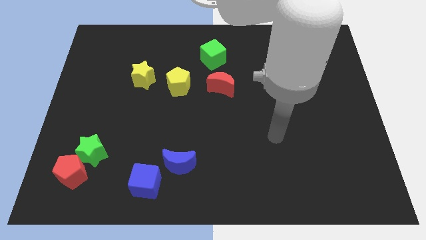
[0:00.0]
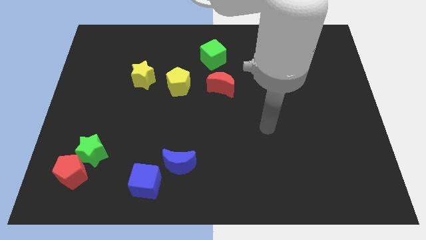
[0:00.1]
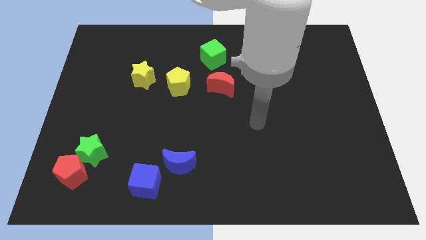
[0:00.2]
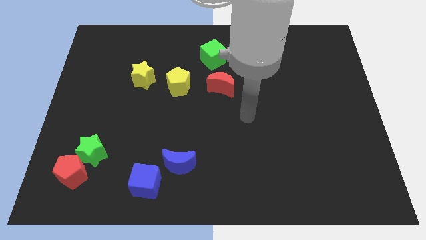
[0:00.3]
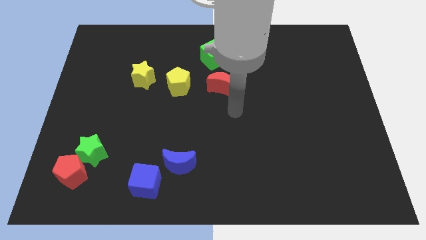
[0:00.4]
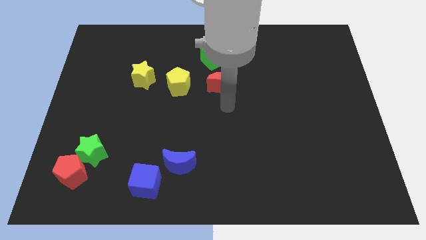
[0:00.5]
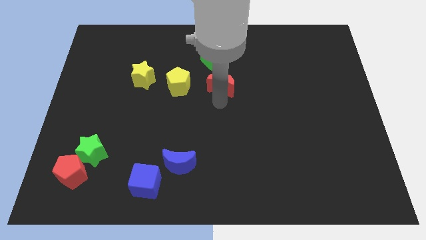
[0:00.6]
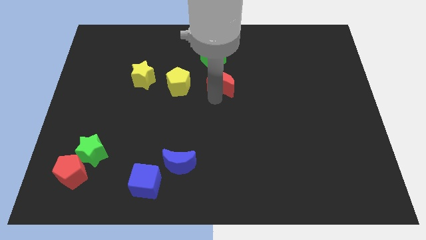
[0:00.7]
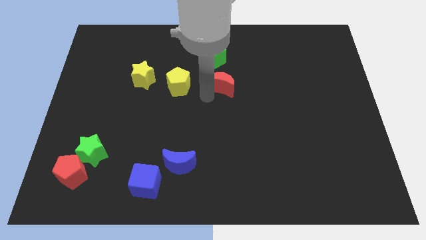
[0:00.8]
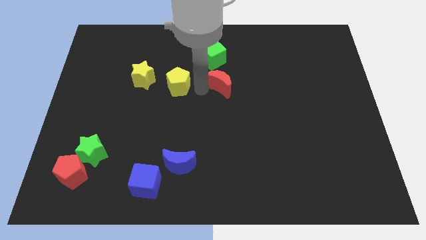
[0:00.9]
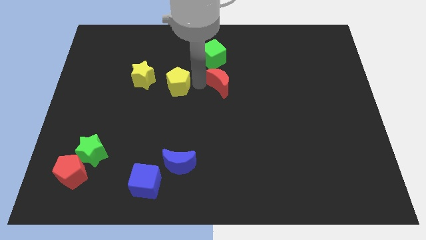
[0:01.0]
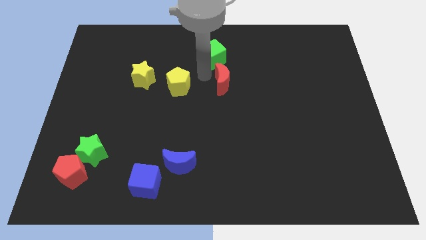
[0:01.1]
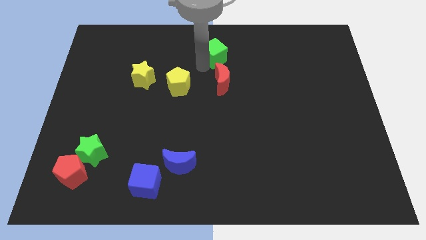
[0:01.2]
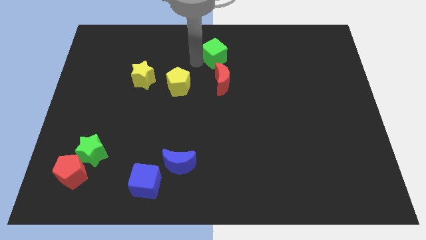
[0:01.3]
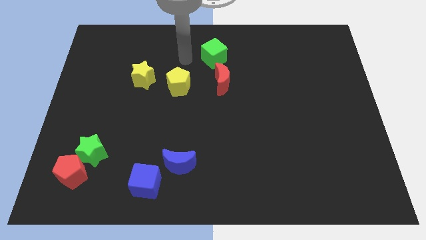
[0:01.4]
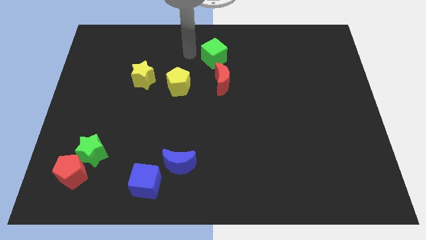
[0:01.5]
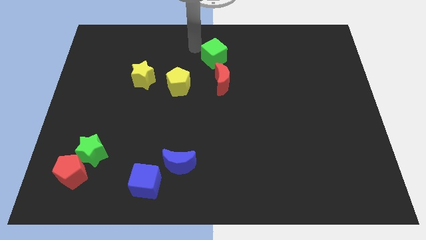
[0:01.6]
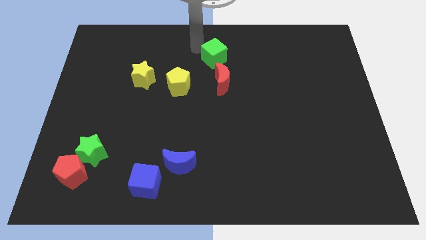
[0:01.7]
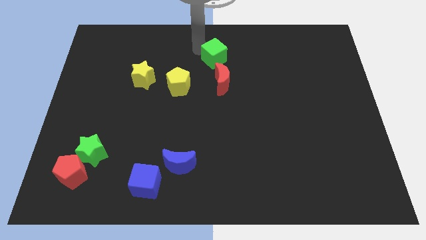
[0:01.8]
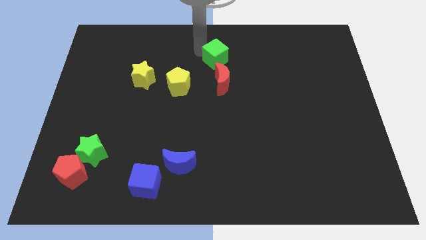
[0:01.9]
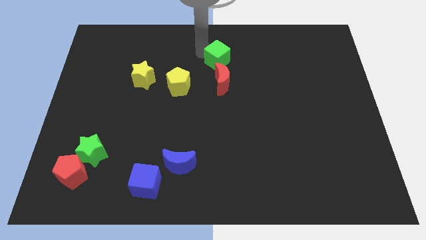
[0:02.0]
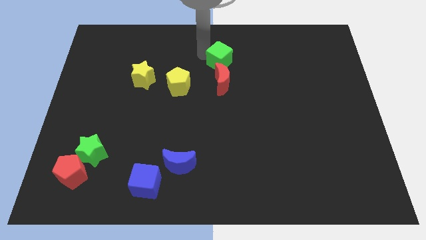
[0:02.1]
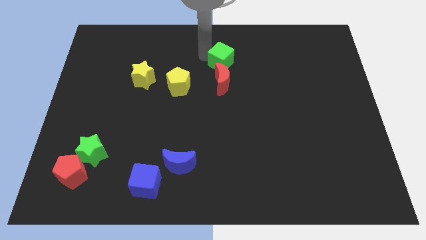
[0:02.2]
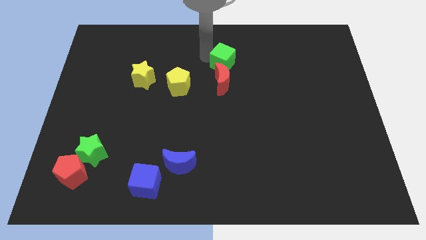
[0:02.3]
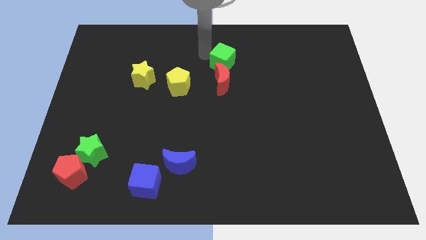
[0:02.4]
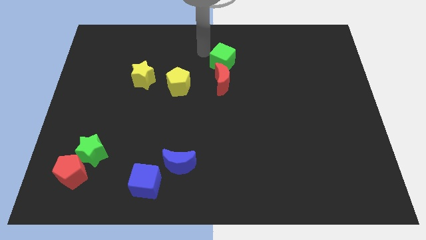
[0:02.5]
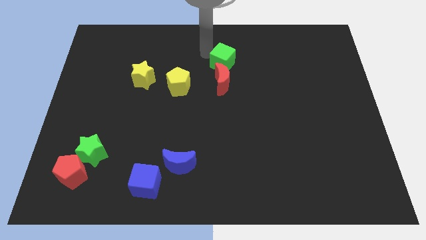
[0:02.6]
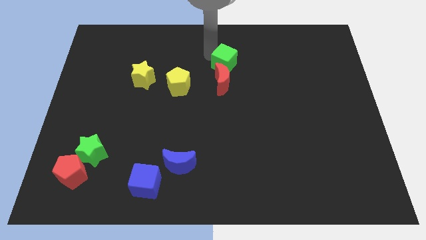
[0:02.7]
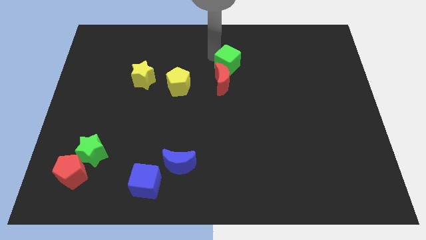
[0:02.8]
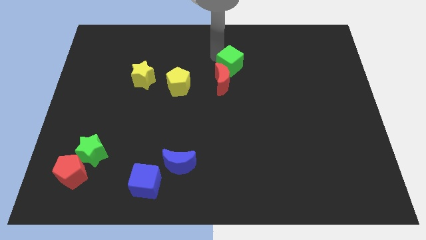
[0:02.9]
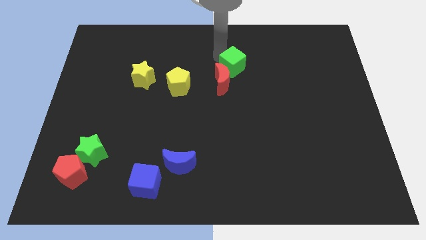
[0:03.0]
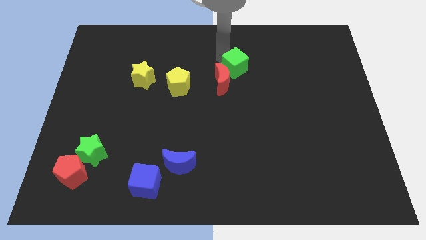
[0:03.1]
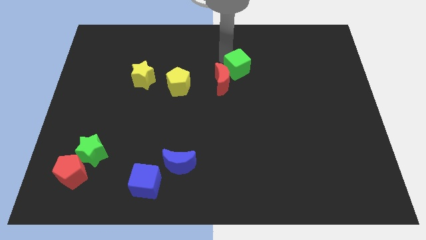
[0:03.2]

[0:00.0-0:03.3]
slightly push the green cube down and to the right diagonally

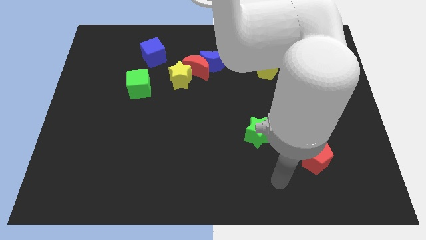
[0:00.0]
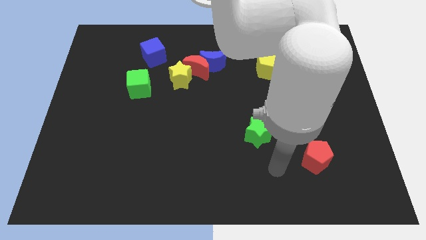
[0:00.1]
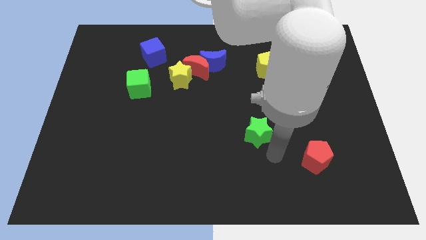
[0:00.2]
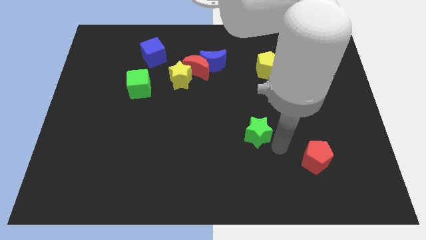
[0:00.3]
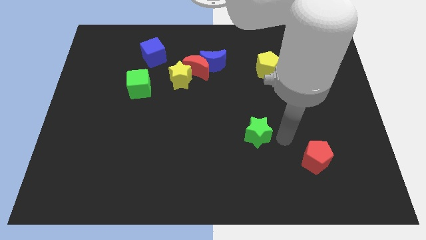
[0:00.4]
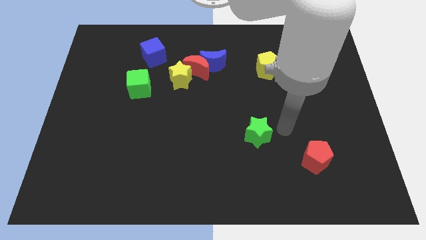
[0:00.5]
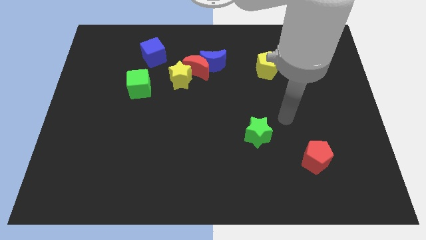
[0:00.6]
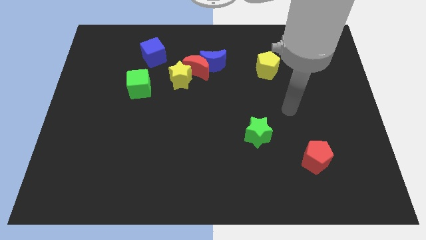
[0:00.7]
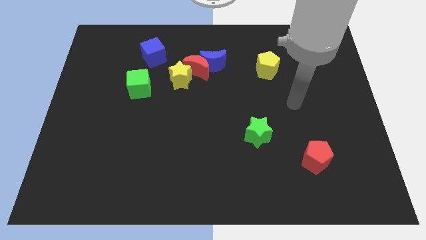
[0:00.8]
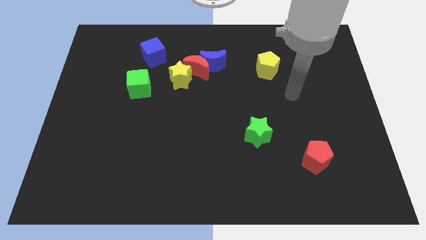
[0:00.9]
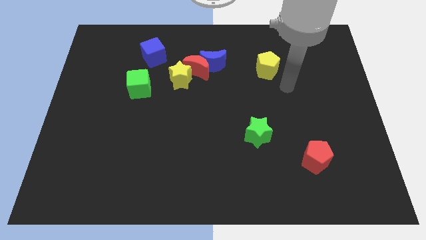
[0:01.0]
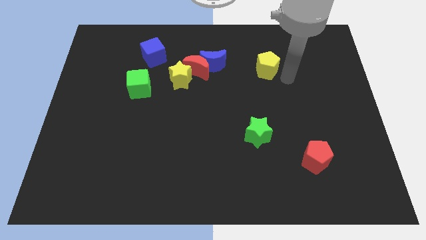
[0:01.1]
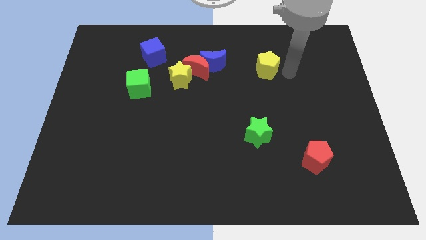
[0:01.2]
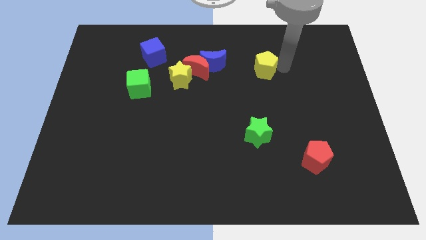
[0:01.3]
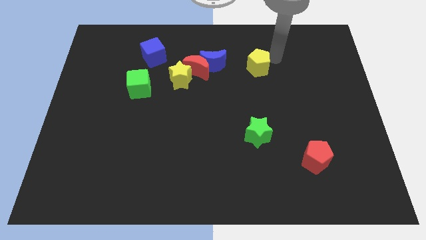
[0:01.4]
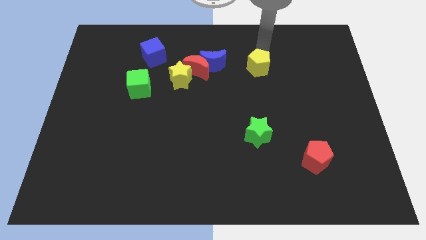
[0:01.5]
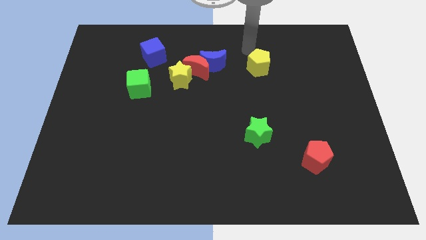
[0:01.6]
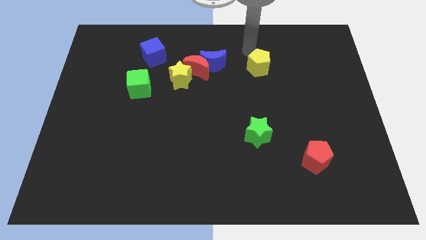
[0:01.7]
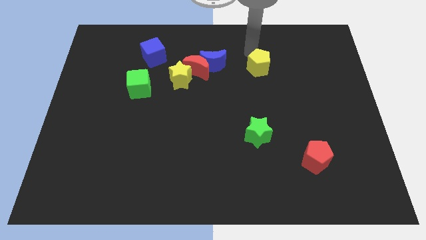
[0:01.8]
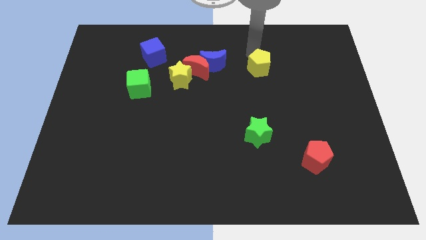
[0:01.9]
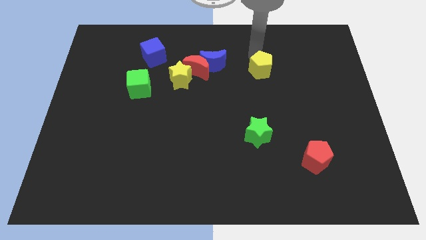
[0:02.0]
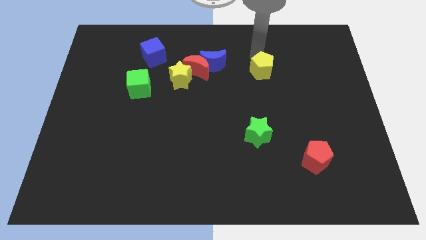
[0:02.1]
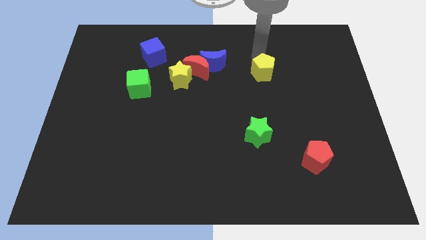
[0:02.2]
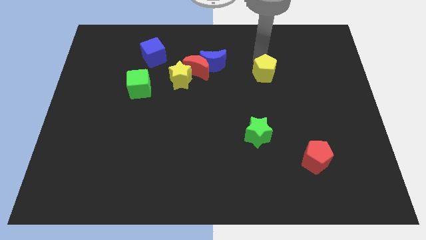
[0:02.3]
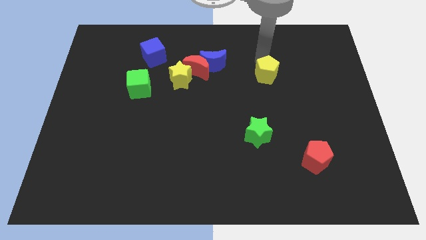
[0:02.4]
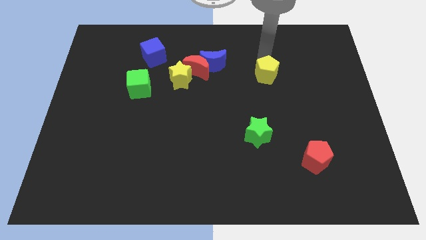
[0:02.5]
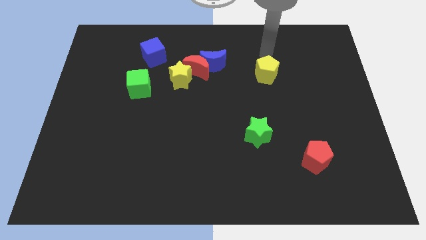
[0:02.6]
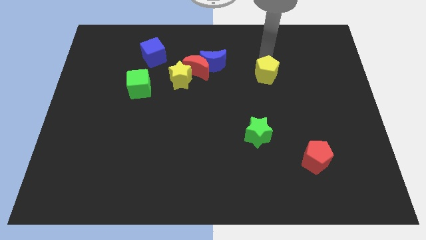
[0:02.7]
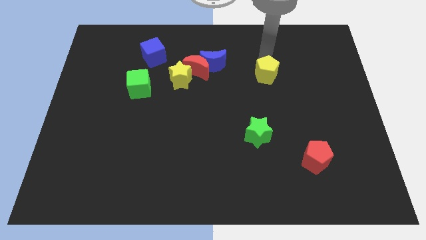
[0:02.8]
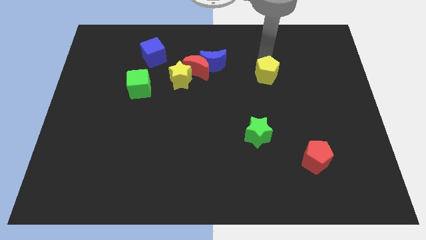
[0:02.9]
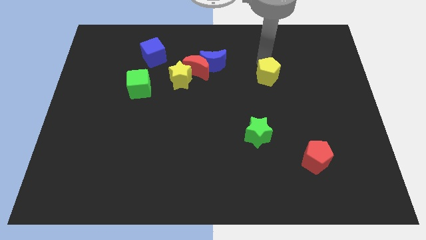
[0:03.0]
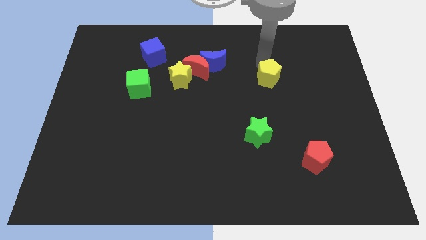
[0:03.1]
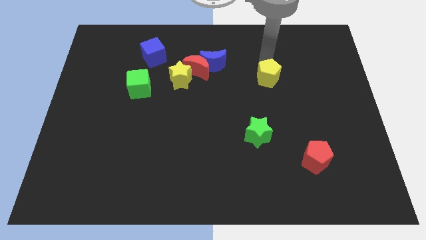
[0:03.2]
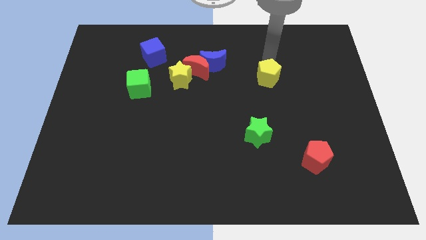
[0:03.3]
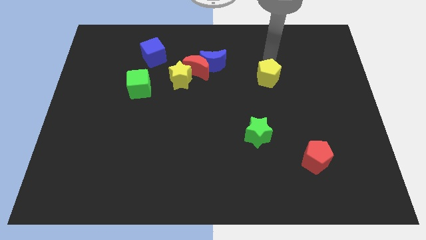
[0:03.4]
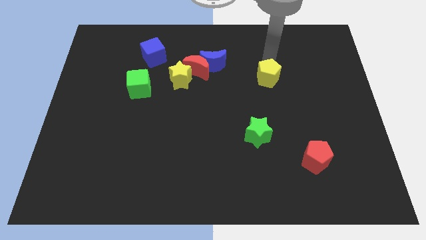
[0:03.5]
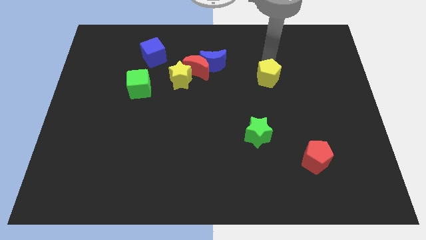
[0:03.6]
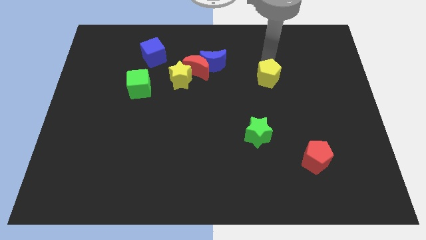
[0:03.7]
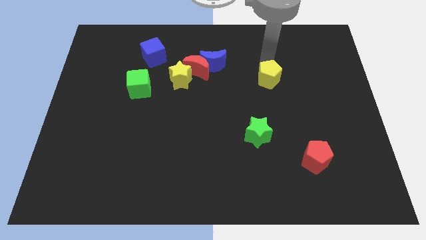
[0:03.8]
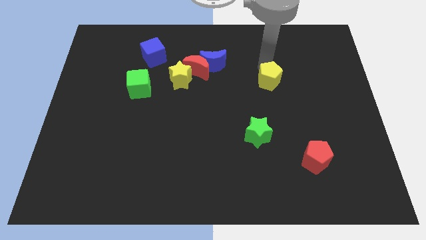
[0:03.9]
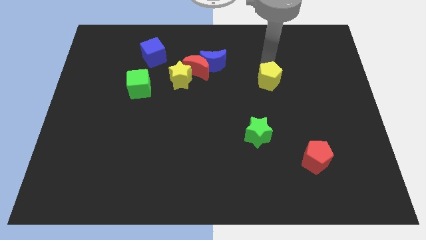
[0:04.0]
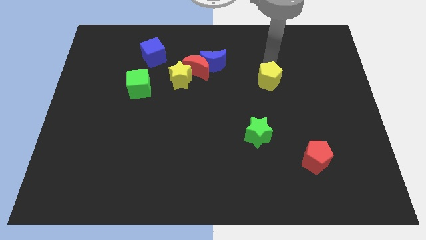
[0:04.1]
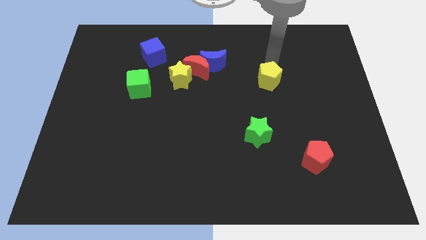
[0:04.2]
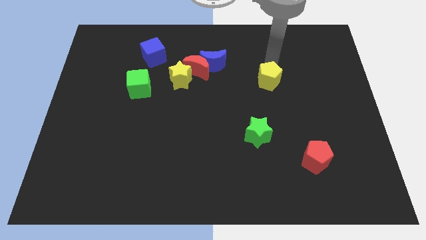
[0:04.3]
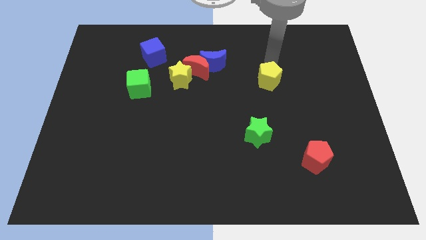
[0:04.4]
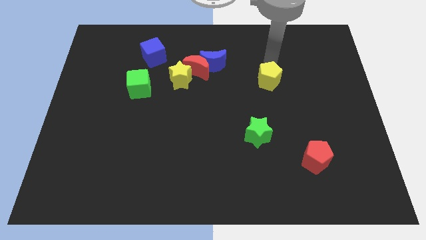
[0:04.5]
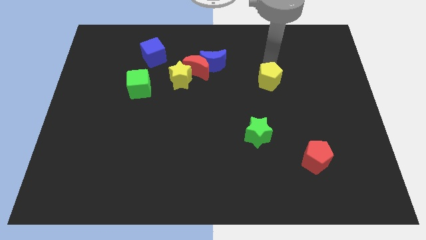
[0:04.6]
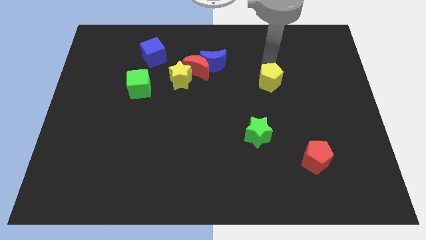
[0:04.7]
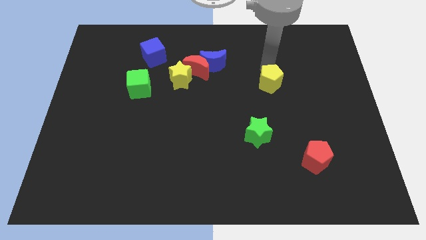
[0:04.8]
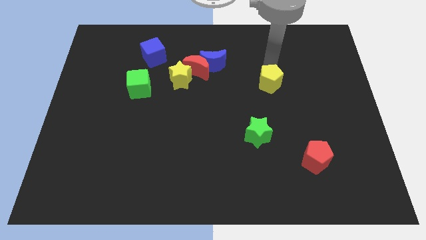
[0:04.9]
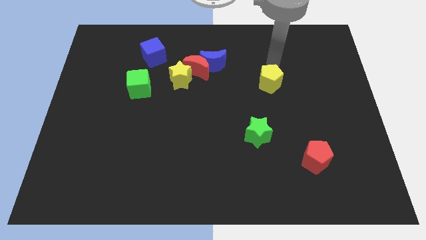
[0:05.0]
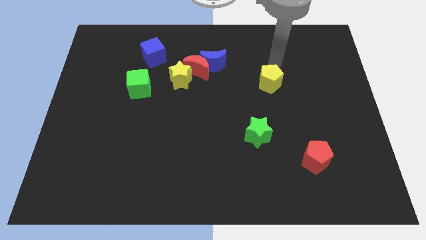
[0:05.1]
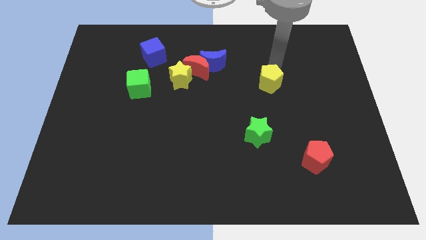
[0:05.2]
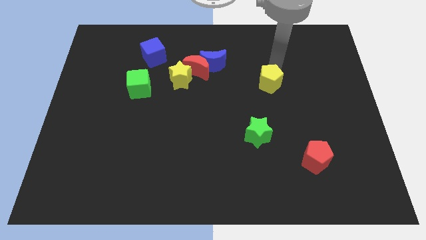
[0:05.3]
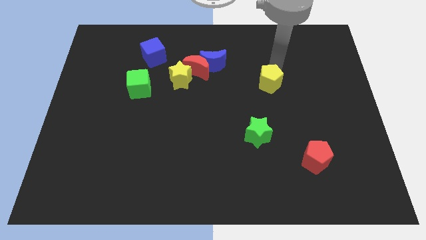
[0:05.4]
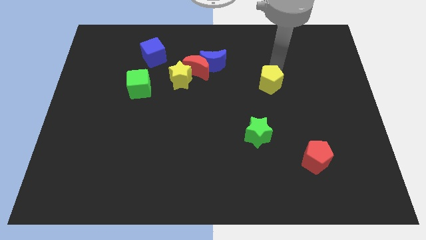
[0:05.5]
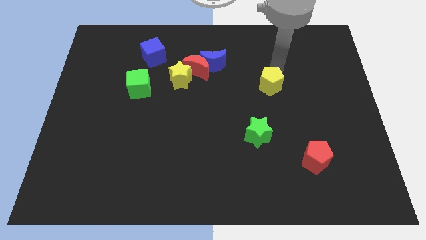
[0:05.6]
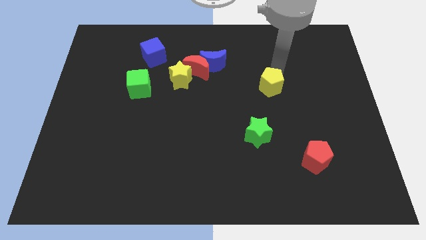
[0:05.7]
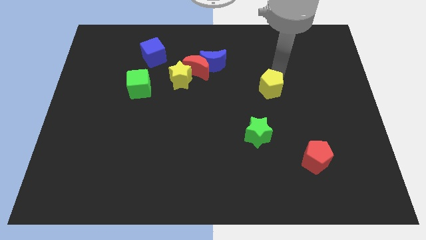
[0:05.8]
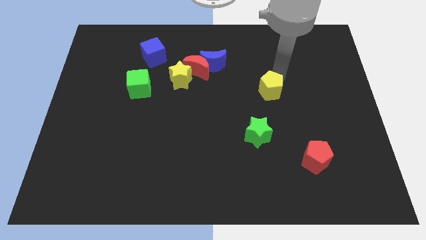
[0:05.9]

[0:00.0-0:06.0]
slightly move the yellow pentagon down
